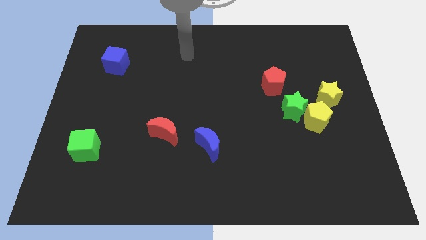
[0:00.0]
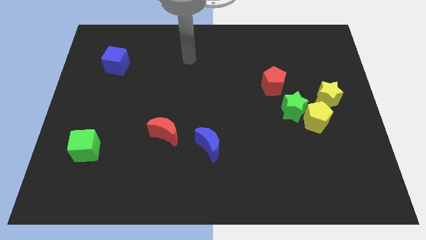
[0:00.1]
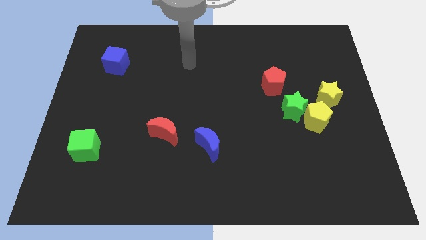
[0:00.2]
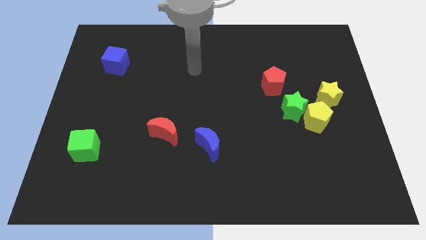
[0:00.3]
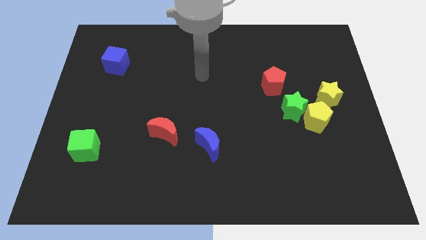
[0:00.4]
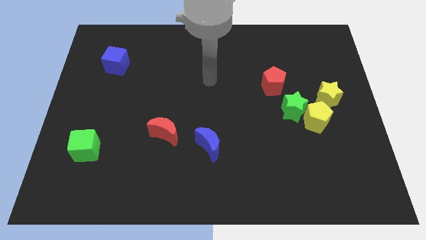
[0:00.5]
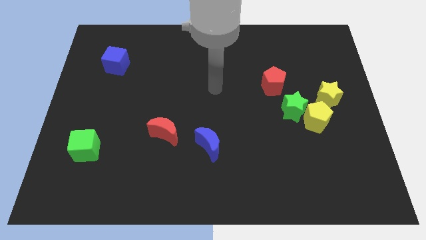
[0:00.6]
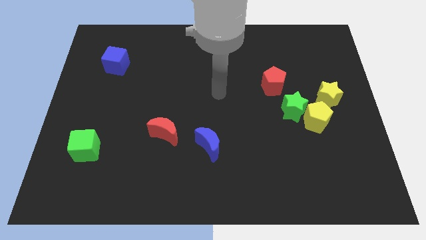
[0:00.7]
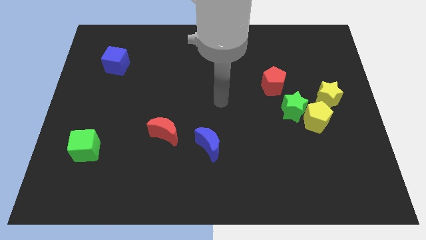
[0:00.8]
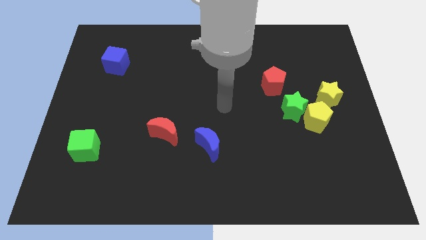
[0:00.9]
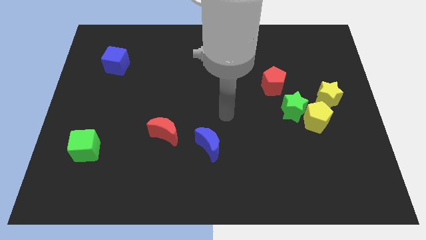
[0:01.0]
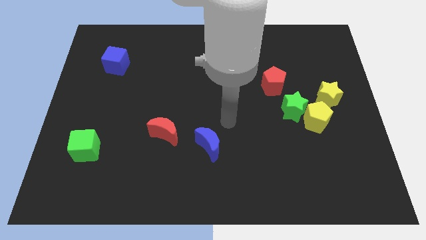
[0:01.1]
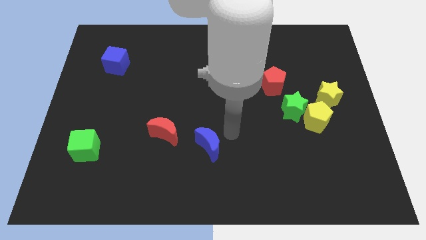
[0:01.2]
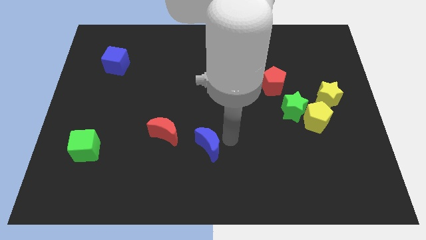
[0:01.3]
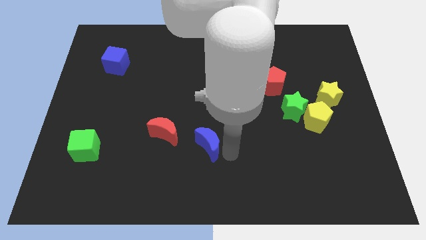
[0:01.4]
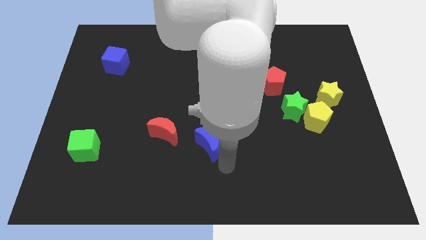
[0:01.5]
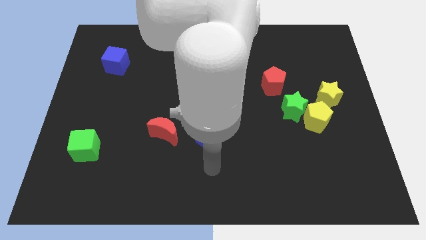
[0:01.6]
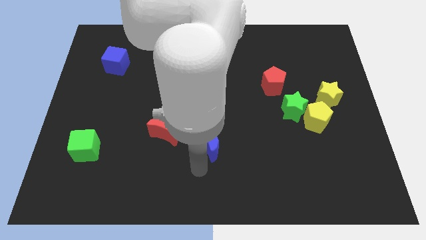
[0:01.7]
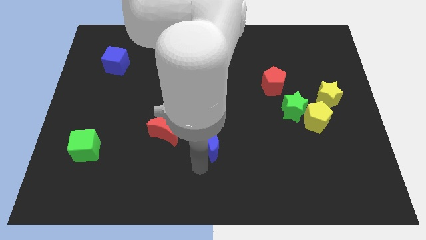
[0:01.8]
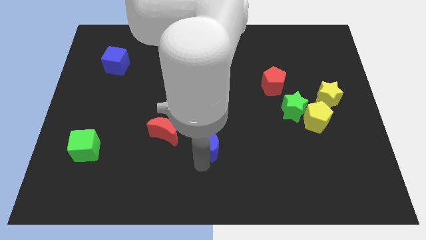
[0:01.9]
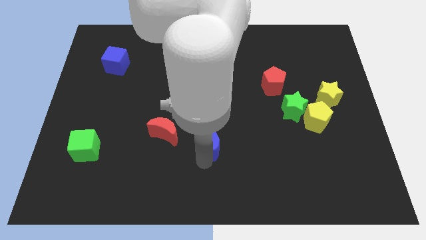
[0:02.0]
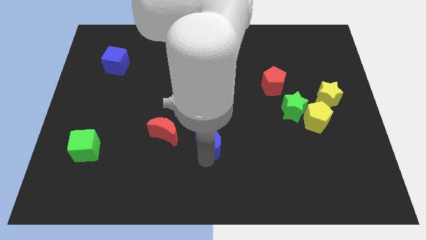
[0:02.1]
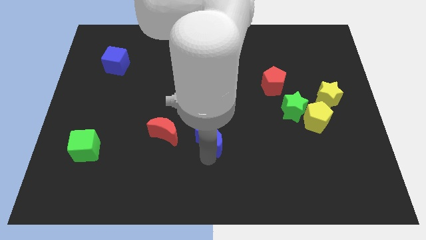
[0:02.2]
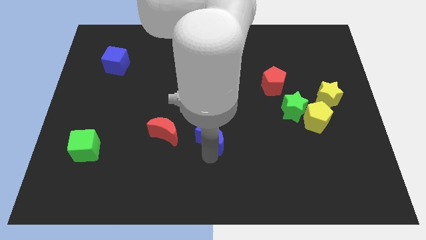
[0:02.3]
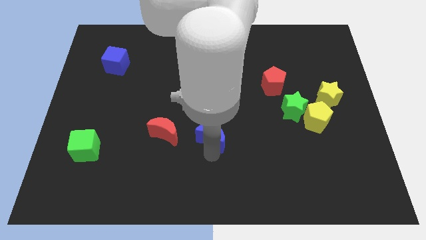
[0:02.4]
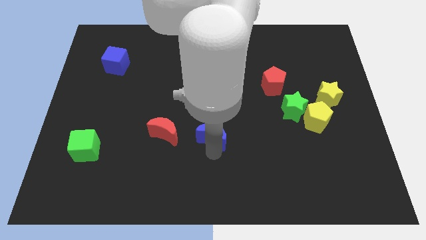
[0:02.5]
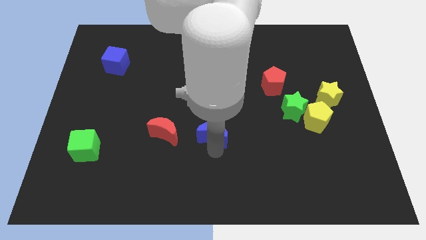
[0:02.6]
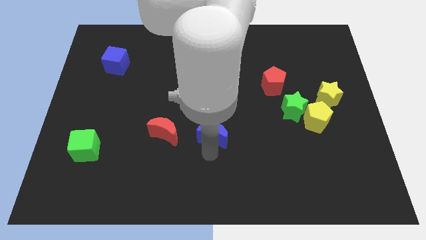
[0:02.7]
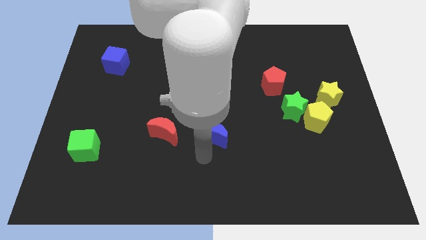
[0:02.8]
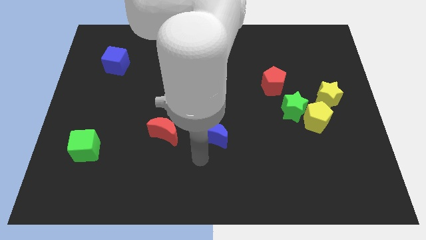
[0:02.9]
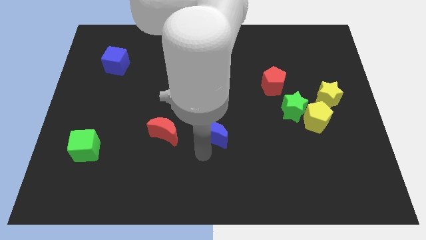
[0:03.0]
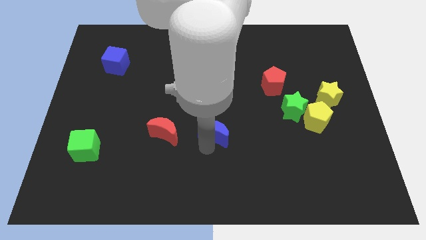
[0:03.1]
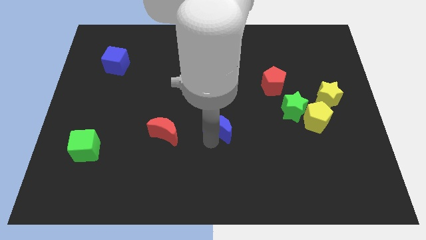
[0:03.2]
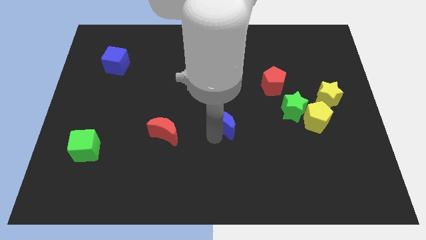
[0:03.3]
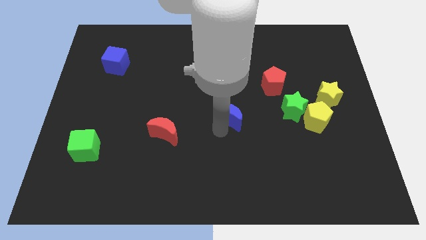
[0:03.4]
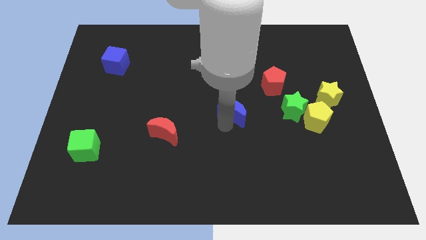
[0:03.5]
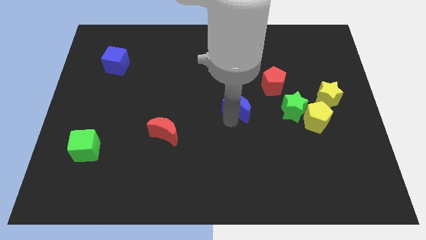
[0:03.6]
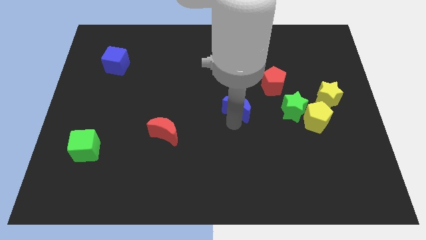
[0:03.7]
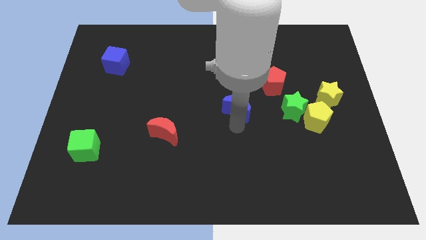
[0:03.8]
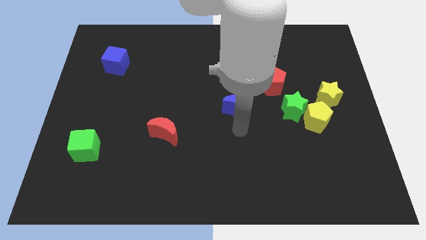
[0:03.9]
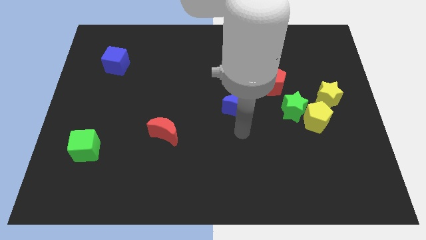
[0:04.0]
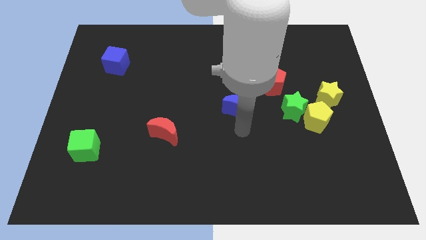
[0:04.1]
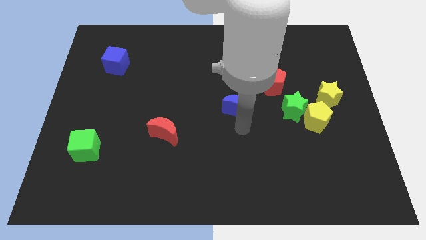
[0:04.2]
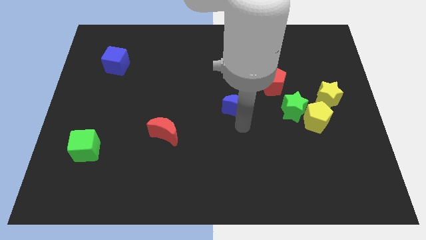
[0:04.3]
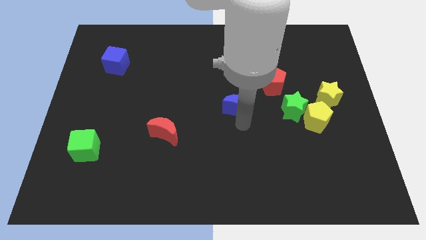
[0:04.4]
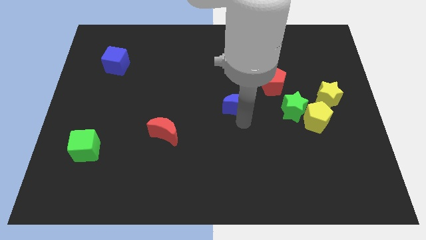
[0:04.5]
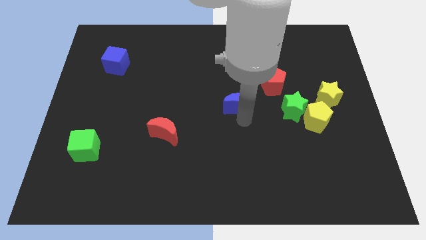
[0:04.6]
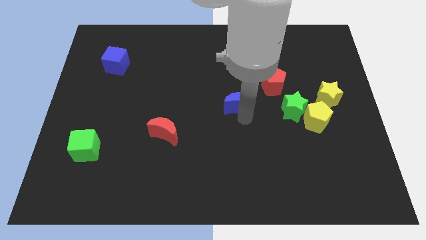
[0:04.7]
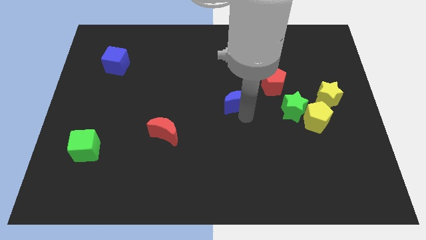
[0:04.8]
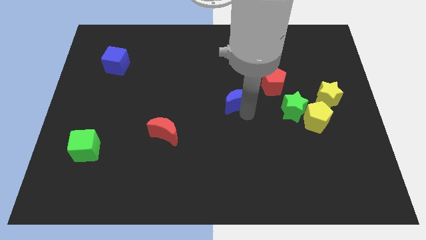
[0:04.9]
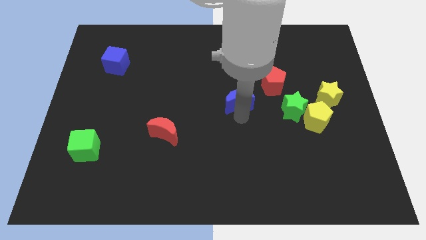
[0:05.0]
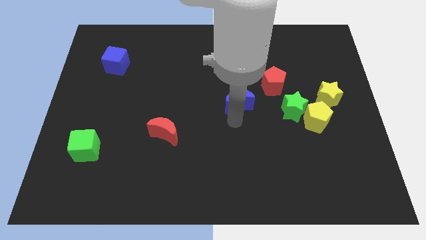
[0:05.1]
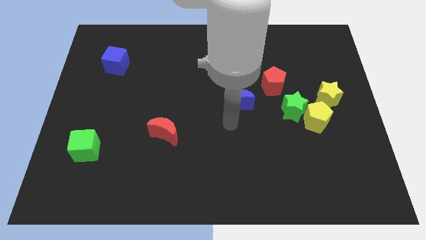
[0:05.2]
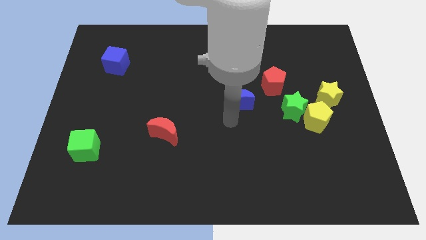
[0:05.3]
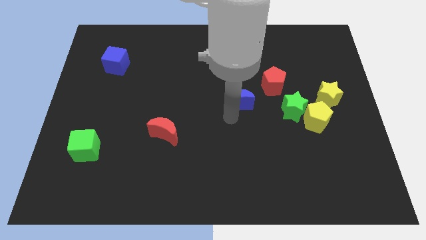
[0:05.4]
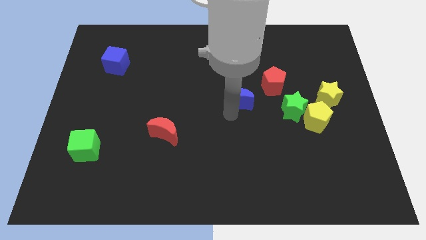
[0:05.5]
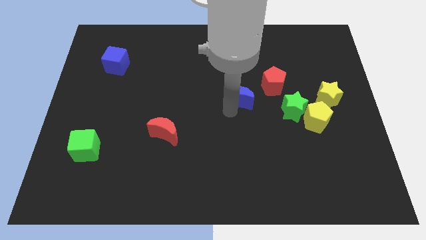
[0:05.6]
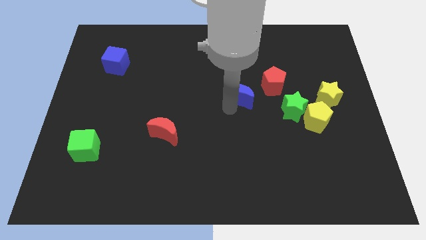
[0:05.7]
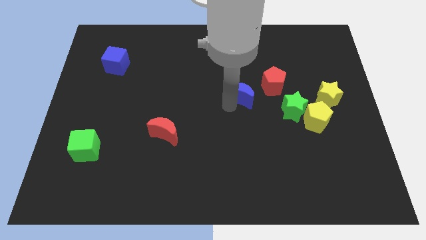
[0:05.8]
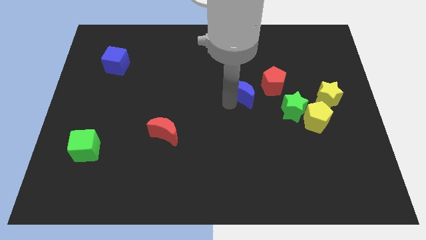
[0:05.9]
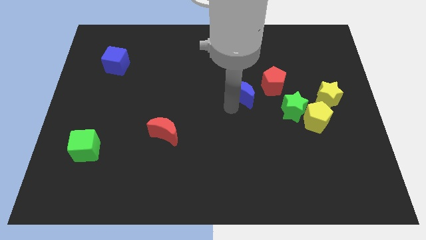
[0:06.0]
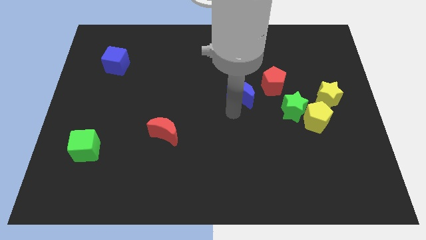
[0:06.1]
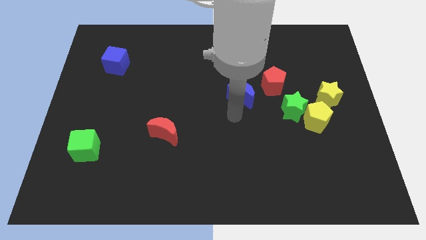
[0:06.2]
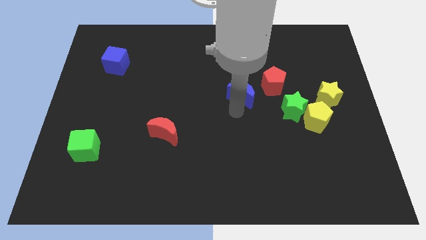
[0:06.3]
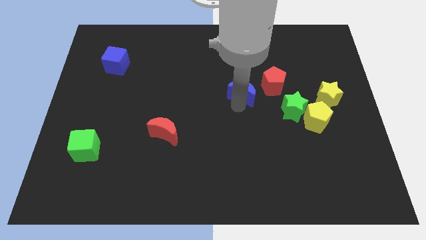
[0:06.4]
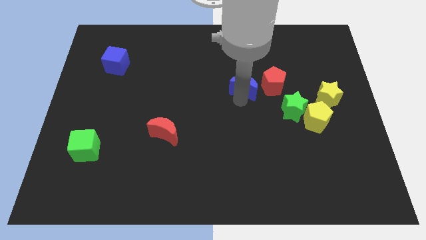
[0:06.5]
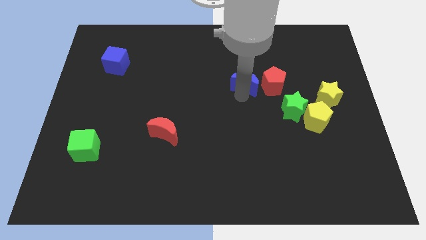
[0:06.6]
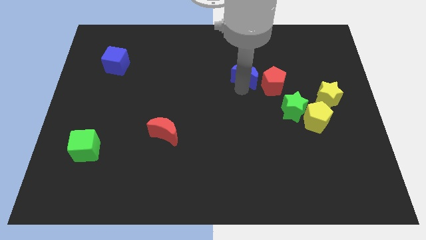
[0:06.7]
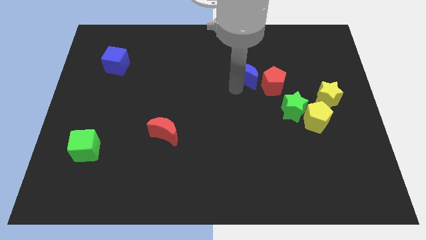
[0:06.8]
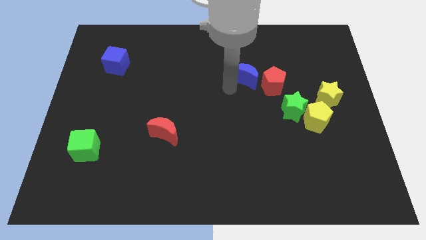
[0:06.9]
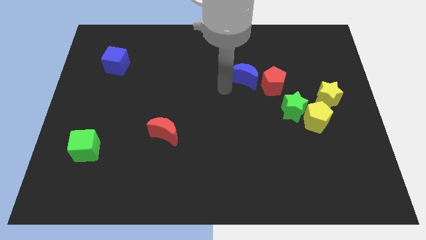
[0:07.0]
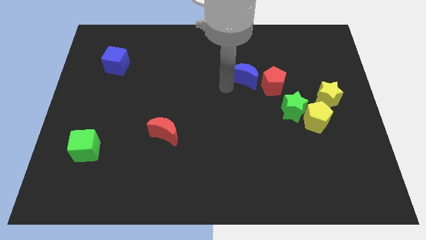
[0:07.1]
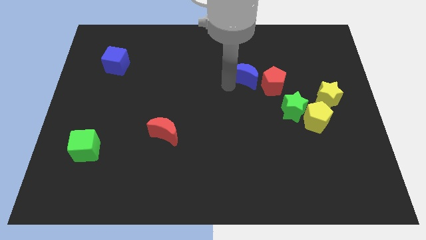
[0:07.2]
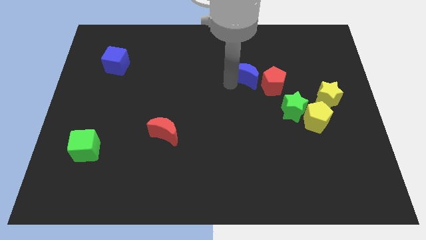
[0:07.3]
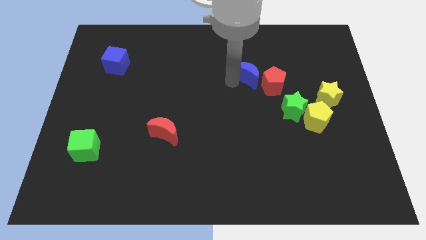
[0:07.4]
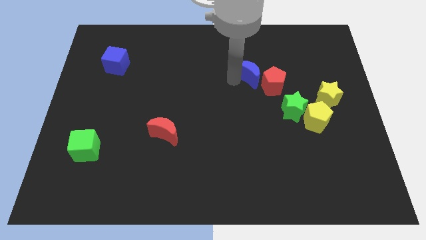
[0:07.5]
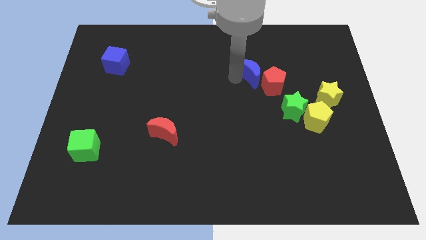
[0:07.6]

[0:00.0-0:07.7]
slide the blue moon upwards and right diagonally

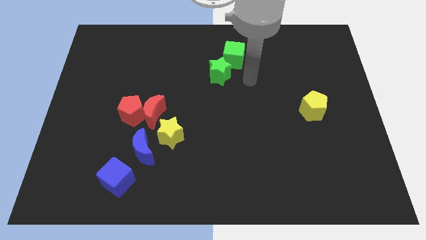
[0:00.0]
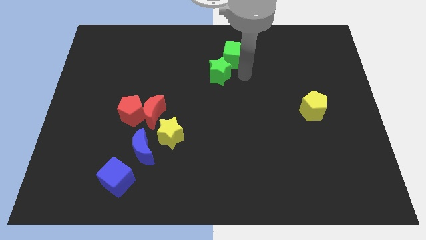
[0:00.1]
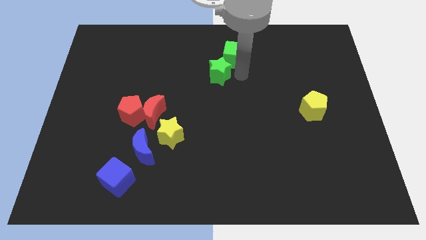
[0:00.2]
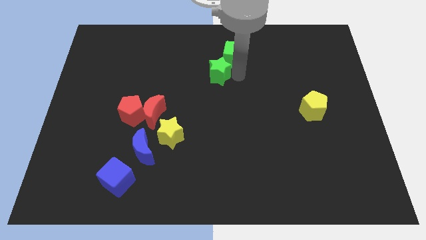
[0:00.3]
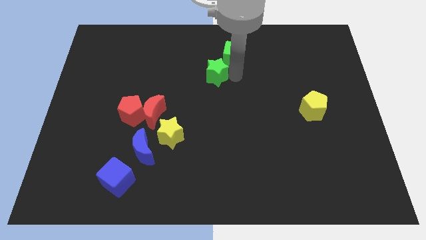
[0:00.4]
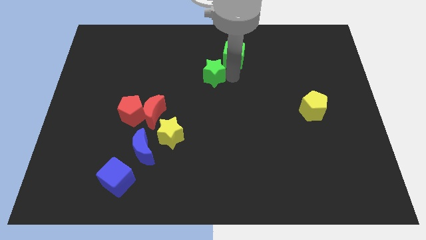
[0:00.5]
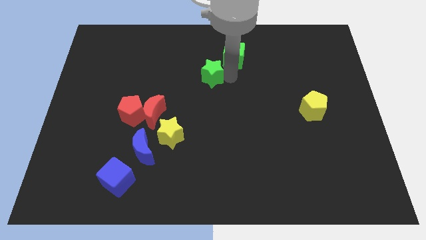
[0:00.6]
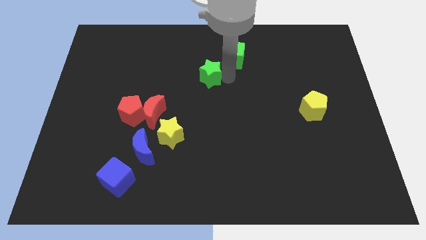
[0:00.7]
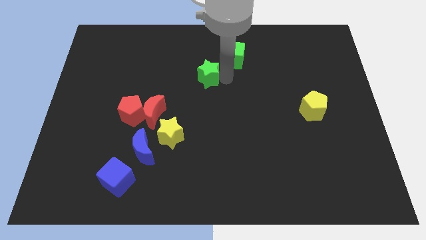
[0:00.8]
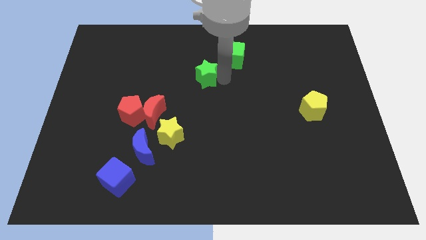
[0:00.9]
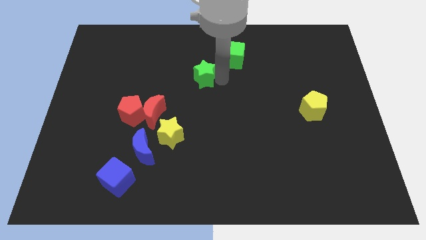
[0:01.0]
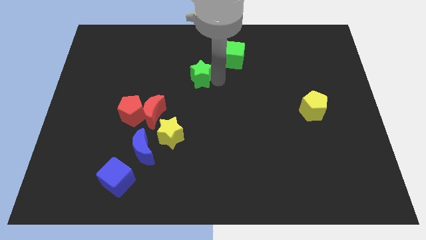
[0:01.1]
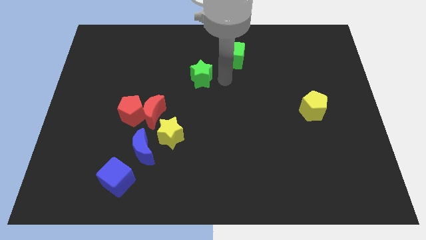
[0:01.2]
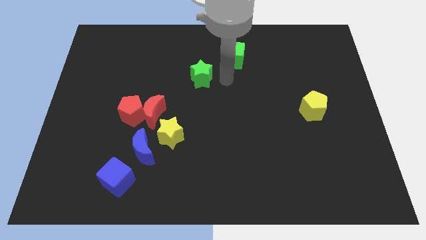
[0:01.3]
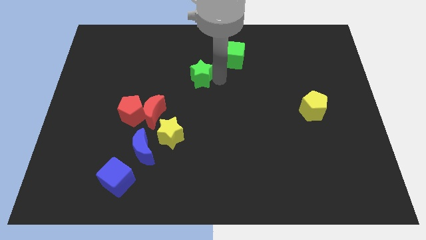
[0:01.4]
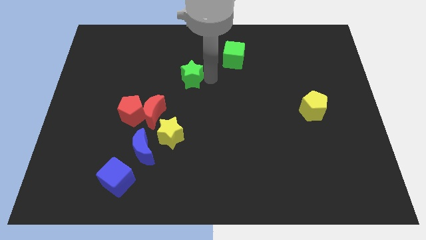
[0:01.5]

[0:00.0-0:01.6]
move the green star somewhat to the left
